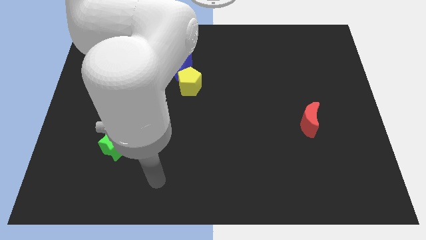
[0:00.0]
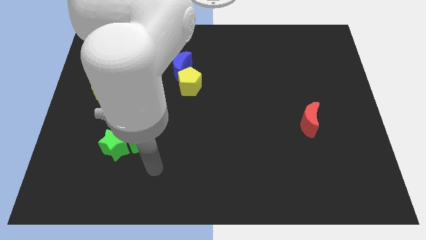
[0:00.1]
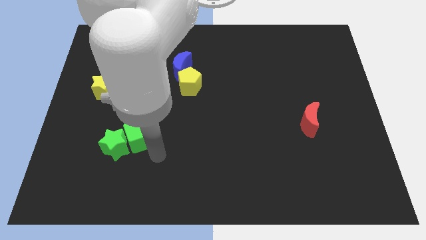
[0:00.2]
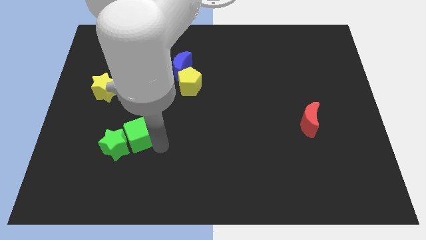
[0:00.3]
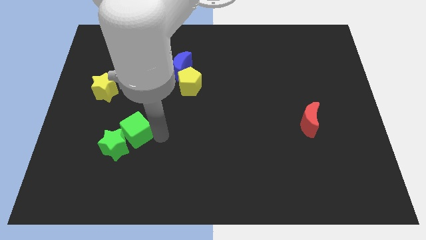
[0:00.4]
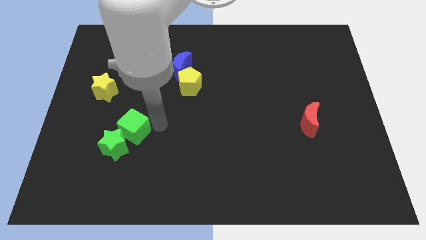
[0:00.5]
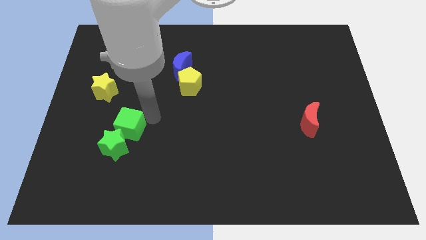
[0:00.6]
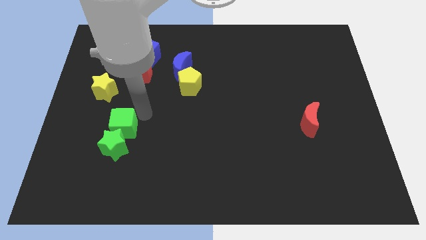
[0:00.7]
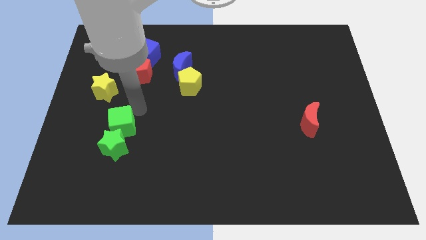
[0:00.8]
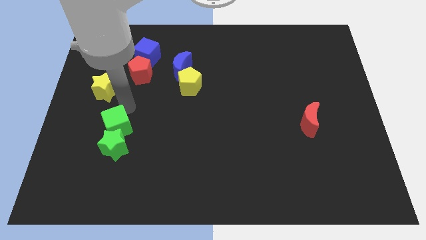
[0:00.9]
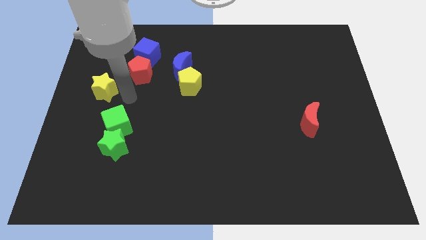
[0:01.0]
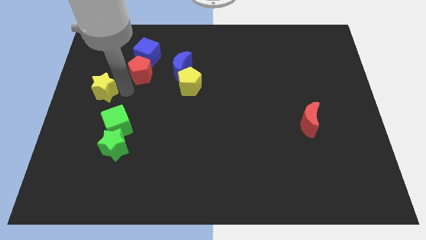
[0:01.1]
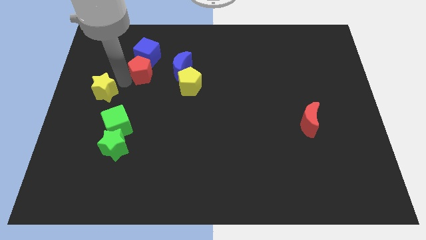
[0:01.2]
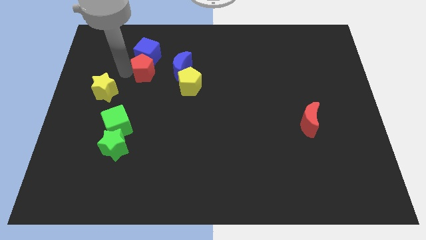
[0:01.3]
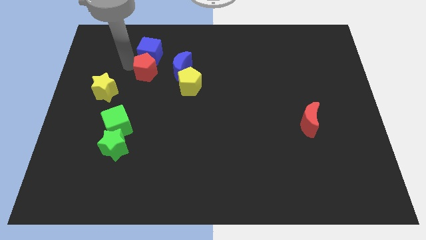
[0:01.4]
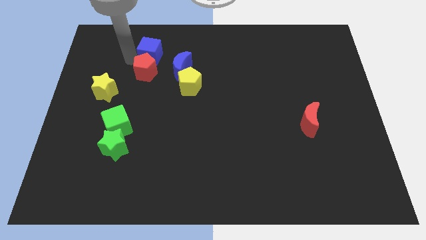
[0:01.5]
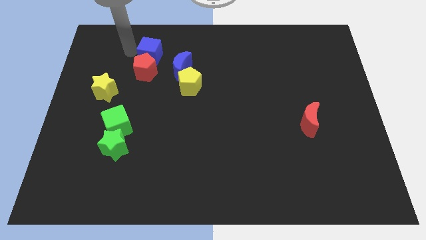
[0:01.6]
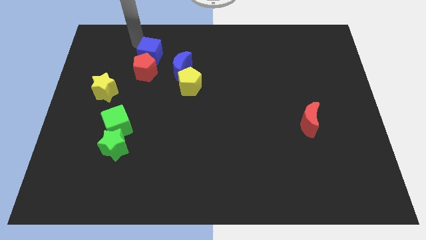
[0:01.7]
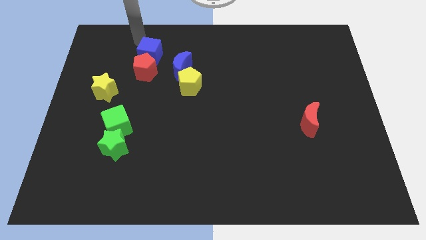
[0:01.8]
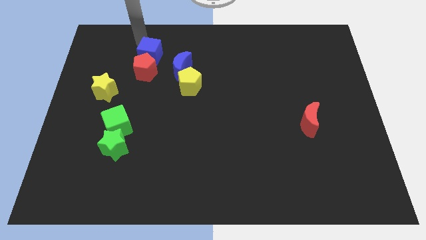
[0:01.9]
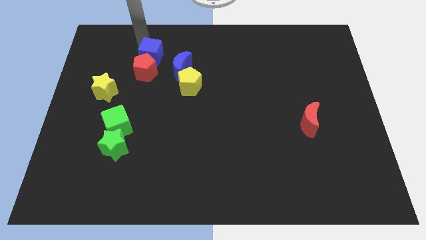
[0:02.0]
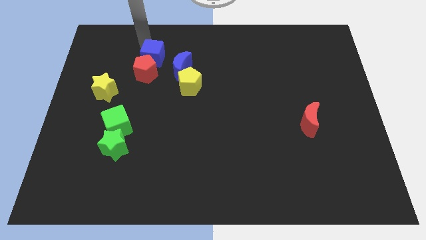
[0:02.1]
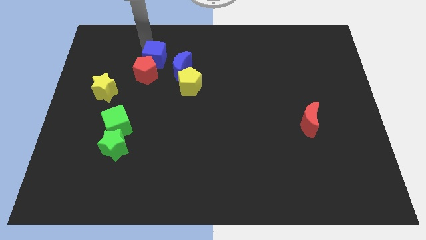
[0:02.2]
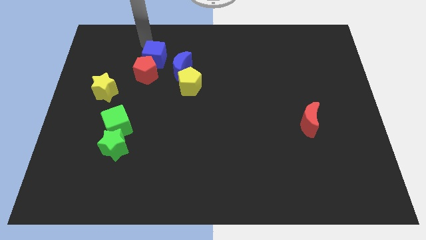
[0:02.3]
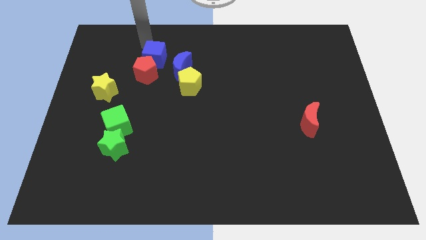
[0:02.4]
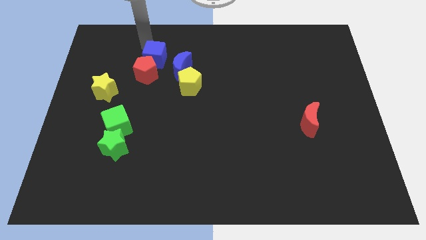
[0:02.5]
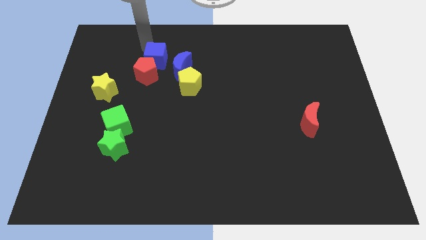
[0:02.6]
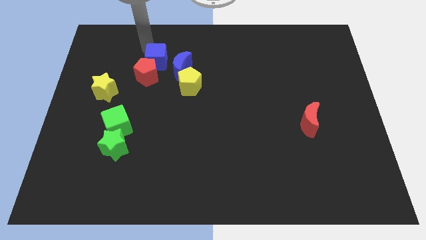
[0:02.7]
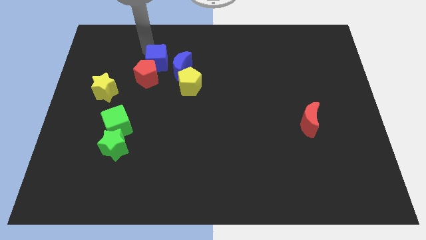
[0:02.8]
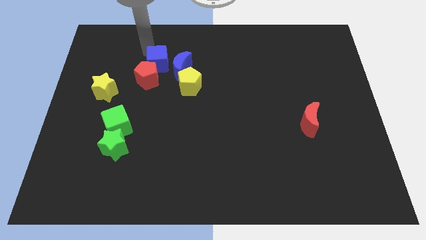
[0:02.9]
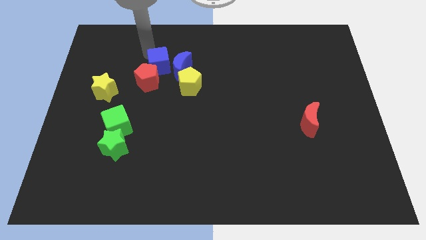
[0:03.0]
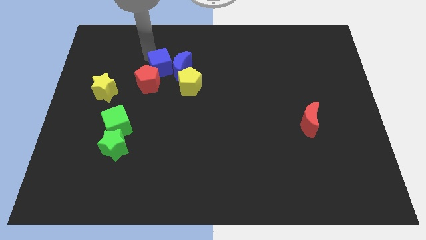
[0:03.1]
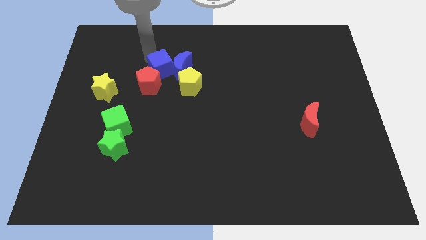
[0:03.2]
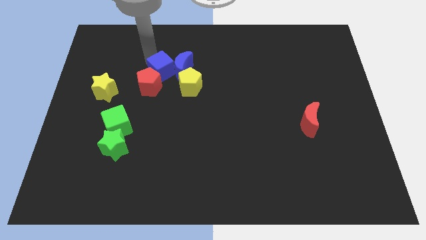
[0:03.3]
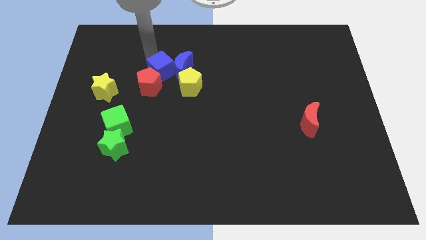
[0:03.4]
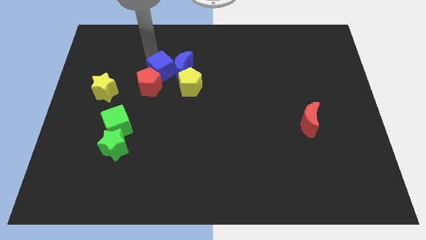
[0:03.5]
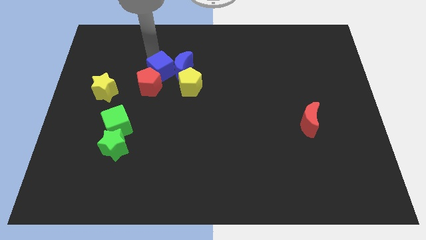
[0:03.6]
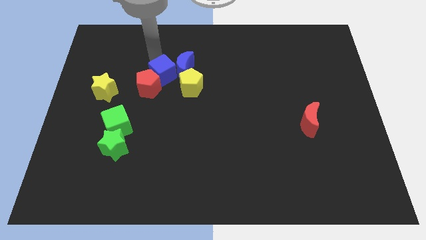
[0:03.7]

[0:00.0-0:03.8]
move the blue cube down and right diagonally a little

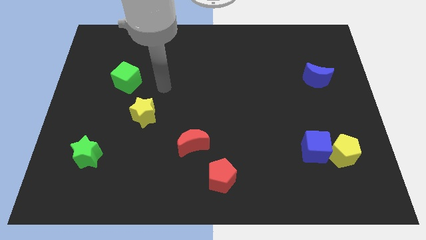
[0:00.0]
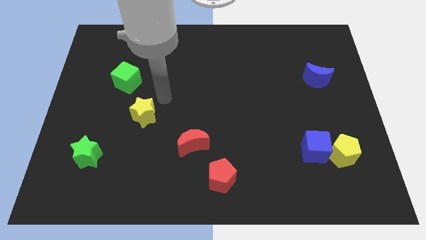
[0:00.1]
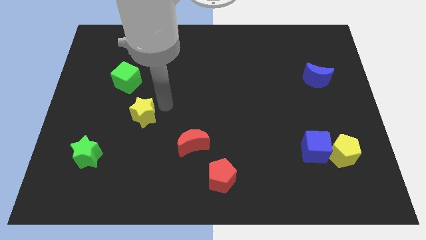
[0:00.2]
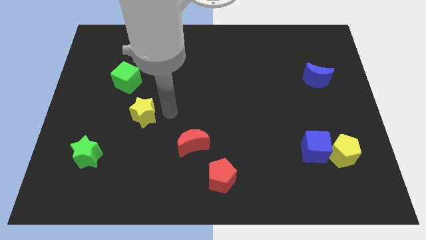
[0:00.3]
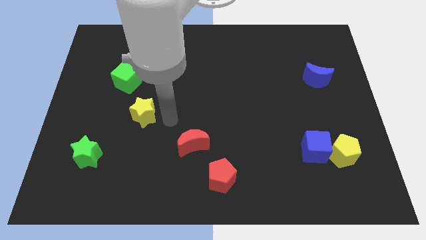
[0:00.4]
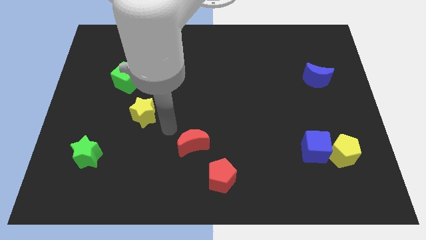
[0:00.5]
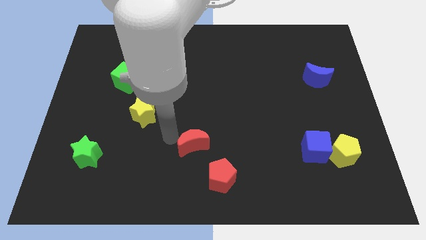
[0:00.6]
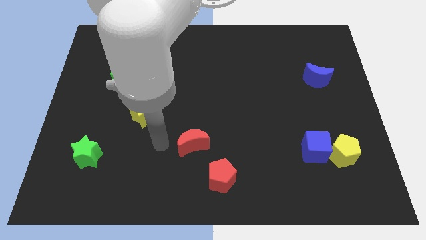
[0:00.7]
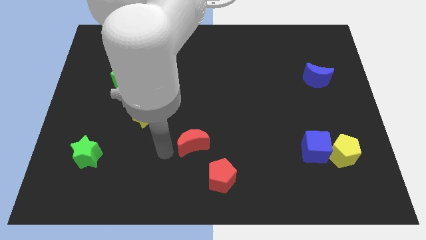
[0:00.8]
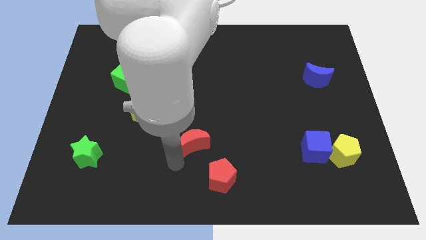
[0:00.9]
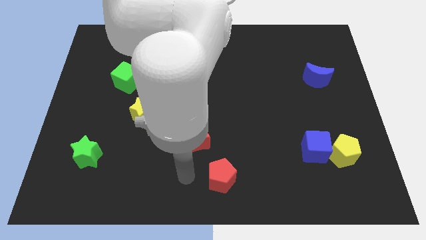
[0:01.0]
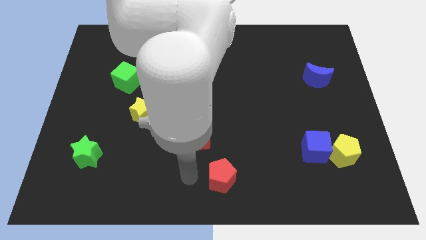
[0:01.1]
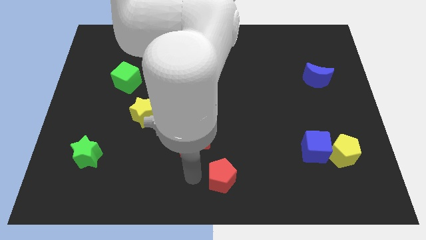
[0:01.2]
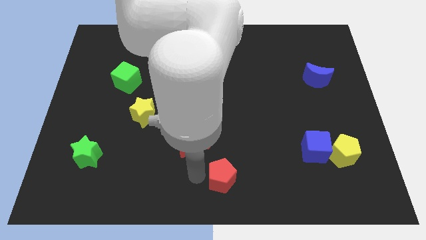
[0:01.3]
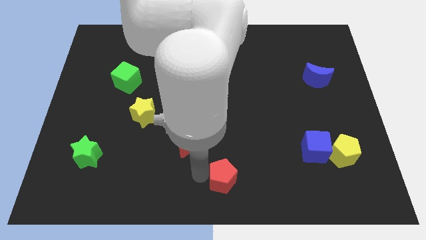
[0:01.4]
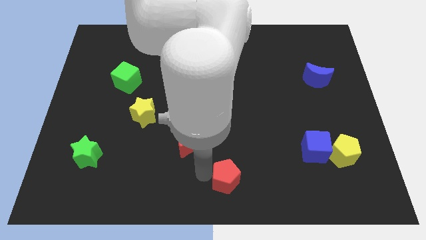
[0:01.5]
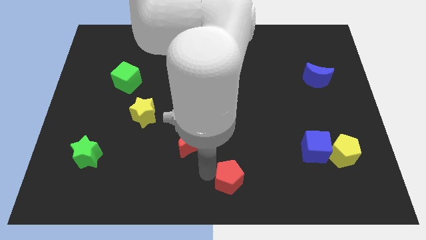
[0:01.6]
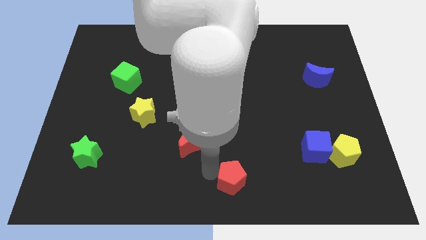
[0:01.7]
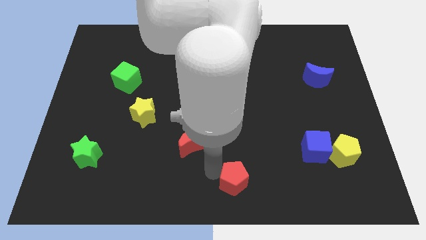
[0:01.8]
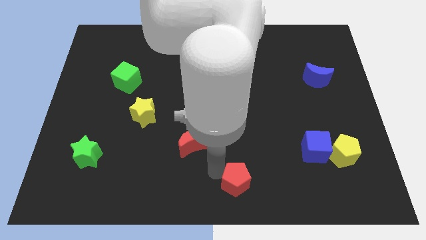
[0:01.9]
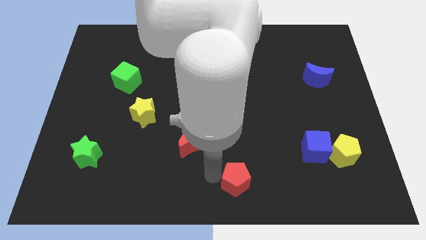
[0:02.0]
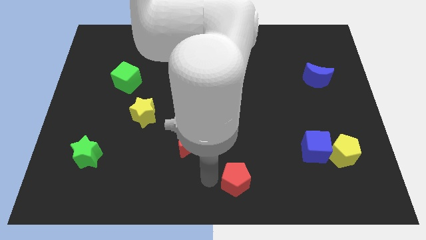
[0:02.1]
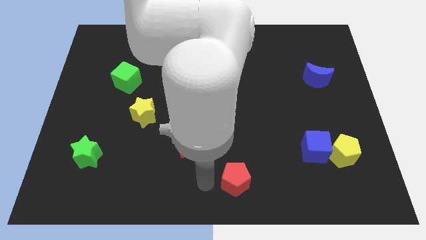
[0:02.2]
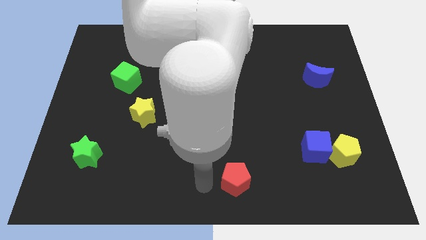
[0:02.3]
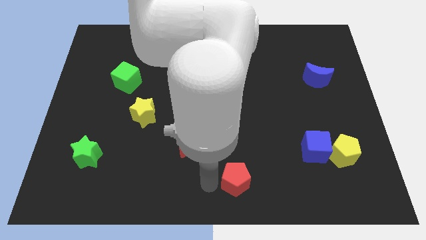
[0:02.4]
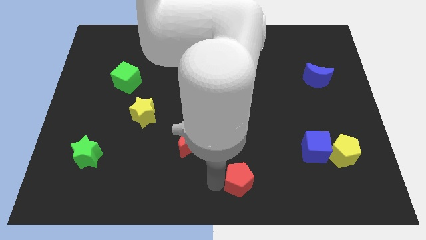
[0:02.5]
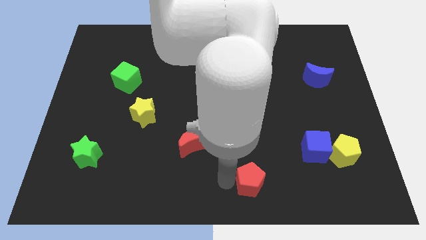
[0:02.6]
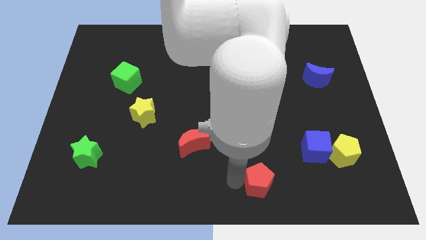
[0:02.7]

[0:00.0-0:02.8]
move the red pentagon a bit right

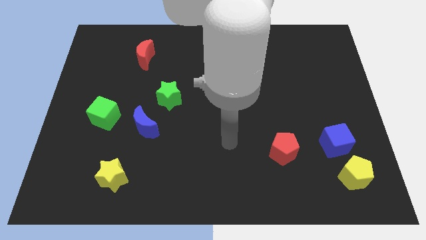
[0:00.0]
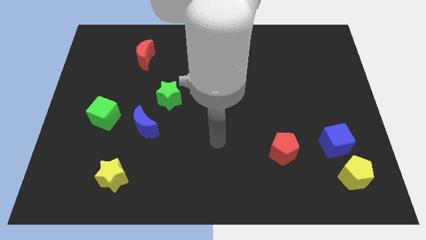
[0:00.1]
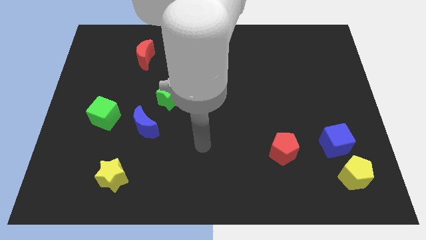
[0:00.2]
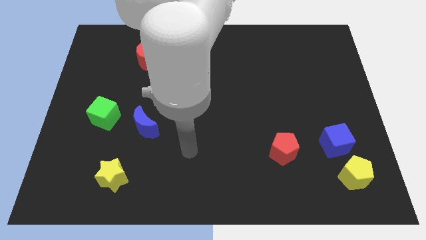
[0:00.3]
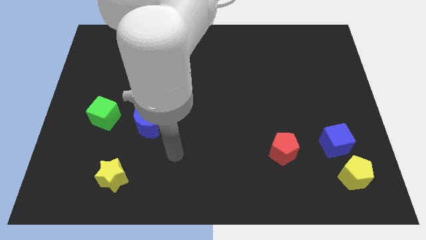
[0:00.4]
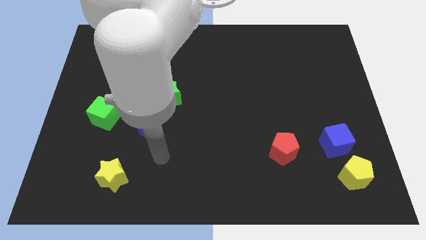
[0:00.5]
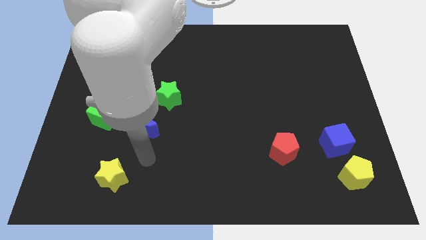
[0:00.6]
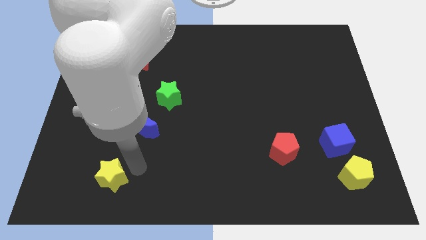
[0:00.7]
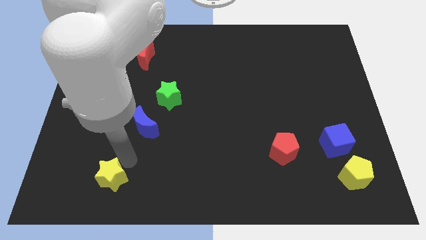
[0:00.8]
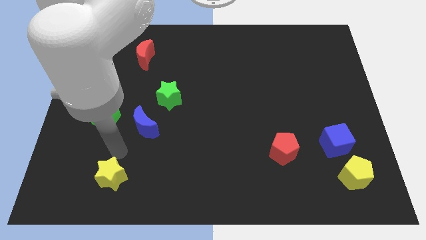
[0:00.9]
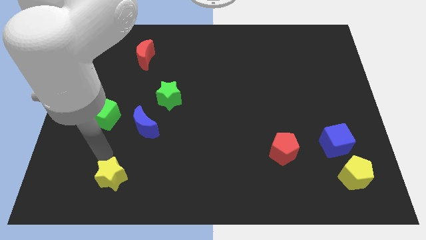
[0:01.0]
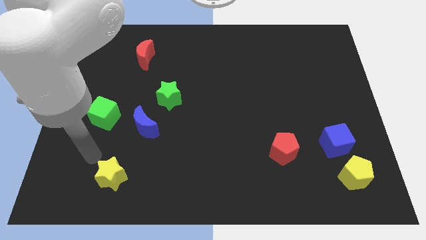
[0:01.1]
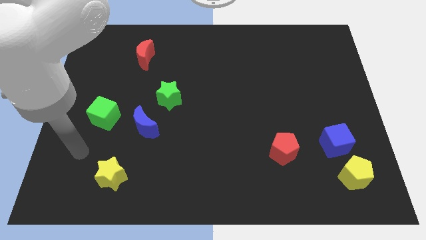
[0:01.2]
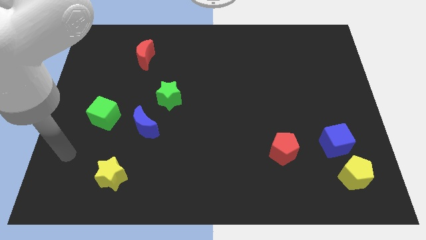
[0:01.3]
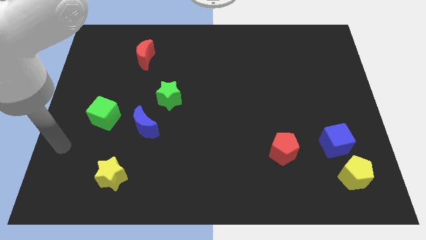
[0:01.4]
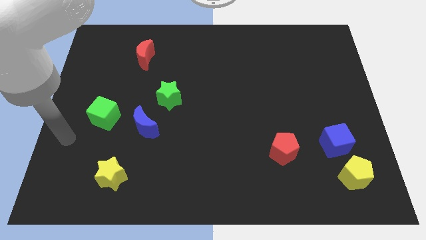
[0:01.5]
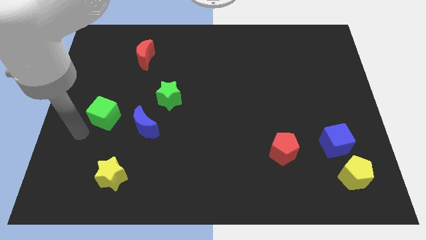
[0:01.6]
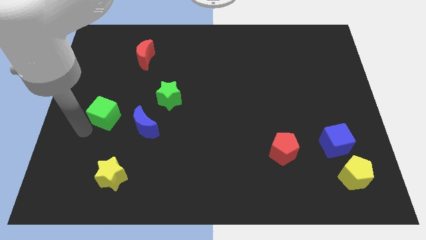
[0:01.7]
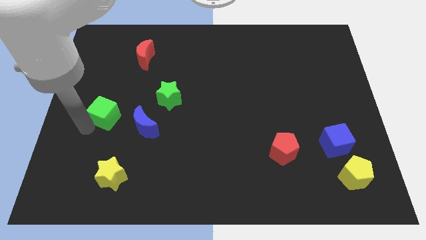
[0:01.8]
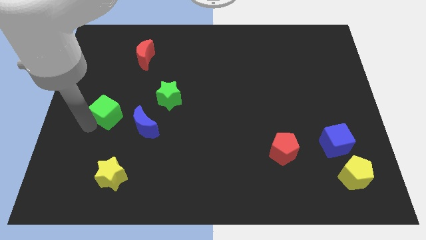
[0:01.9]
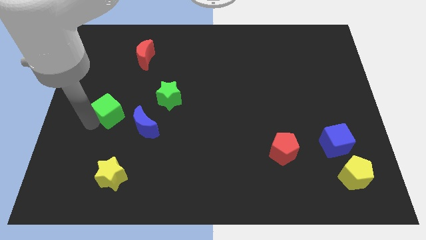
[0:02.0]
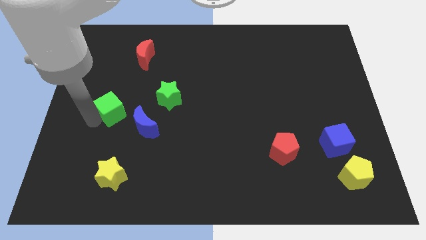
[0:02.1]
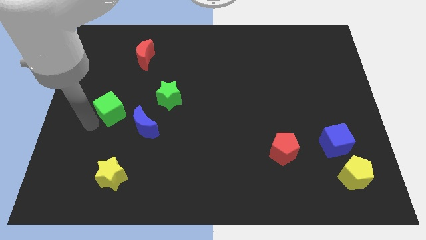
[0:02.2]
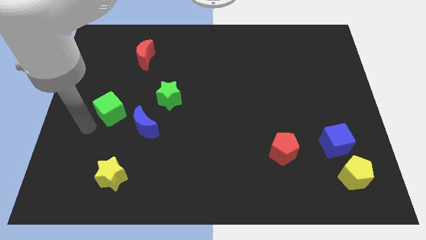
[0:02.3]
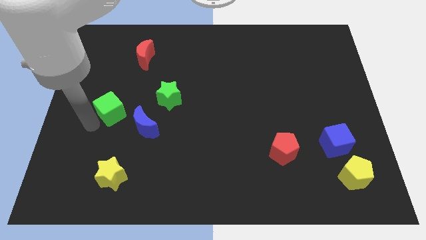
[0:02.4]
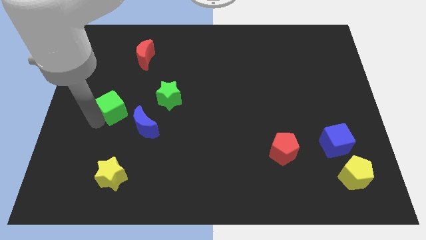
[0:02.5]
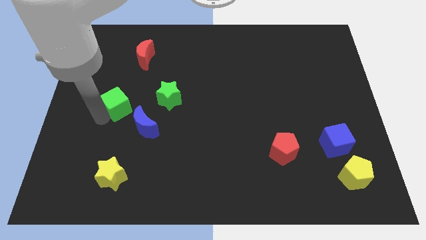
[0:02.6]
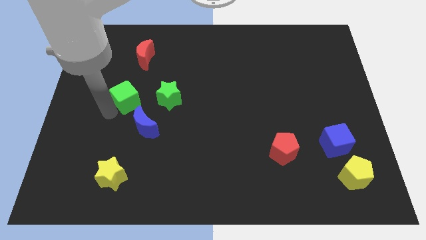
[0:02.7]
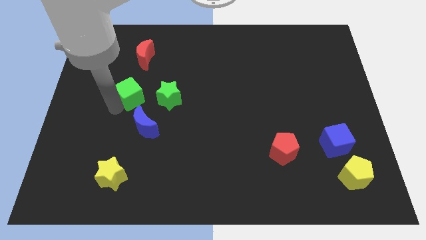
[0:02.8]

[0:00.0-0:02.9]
slightly push the green cube upwards and right diagonally
